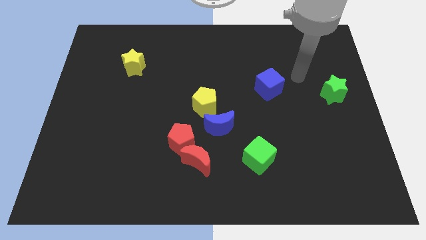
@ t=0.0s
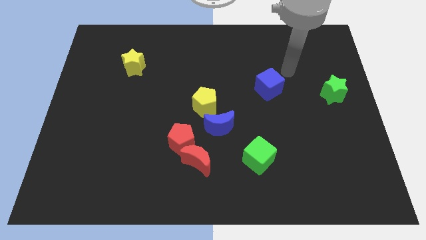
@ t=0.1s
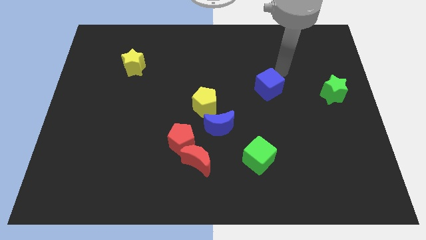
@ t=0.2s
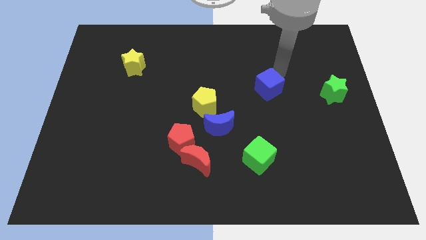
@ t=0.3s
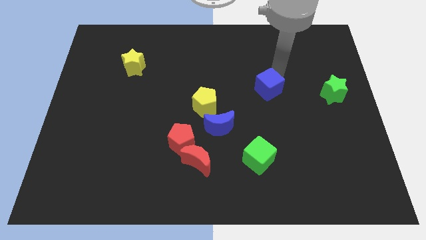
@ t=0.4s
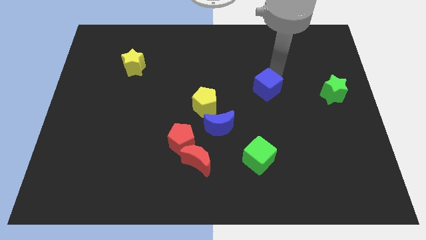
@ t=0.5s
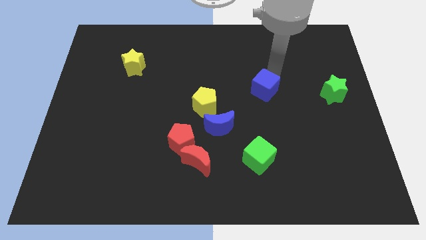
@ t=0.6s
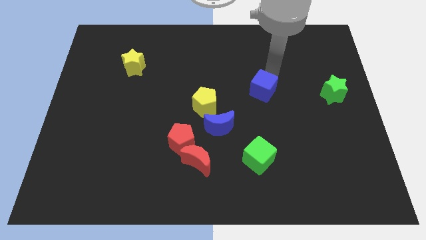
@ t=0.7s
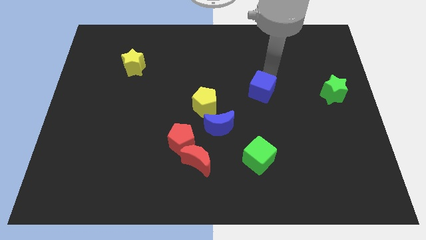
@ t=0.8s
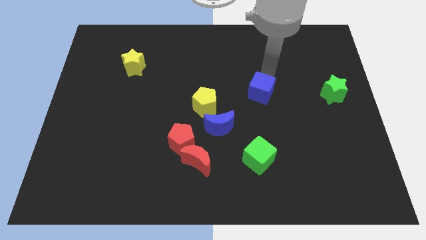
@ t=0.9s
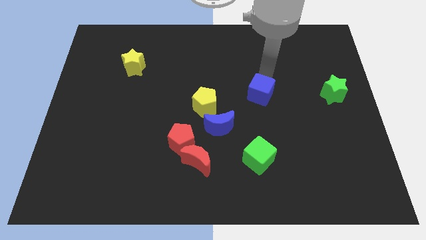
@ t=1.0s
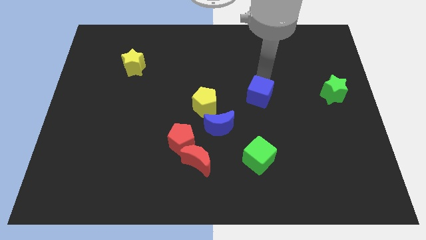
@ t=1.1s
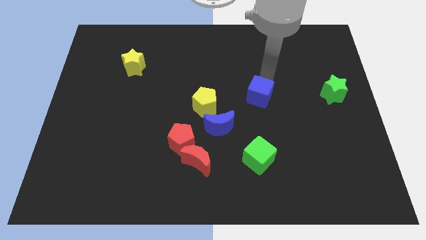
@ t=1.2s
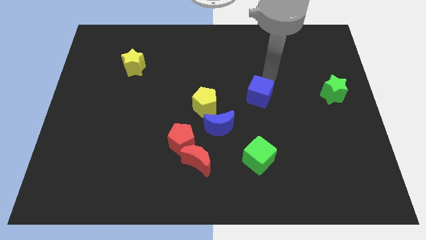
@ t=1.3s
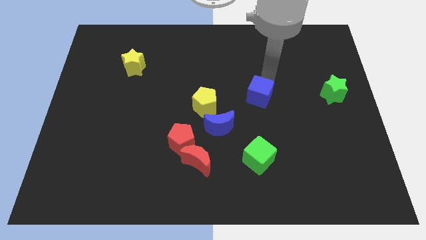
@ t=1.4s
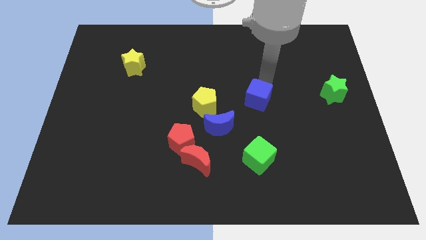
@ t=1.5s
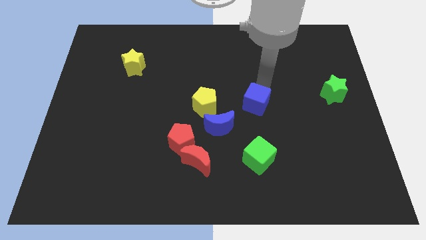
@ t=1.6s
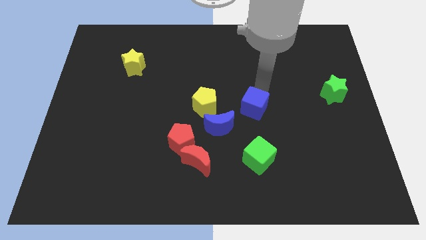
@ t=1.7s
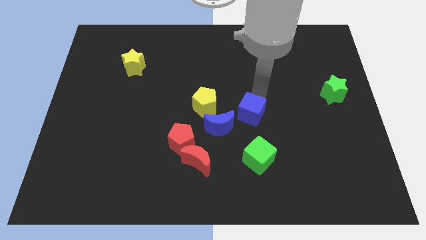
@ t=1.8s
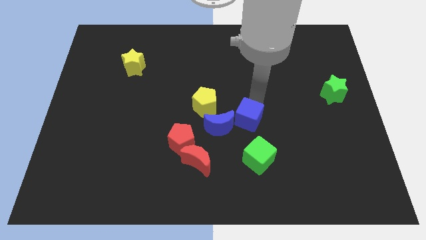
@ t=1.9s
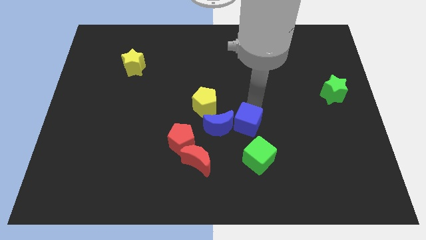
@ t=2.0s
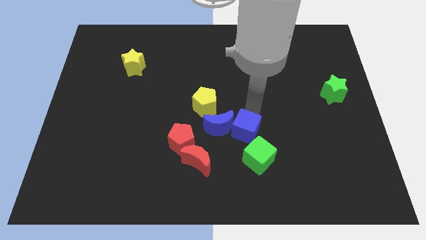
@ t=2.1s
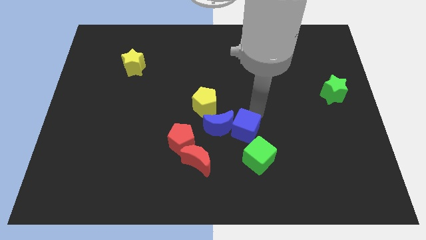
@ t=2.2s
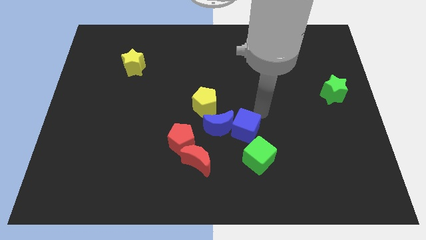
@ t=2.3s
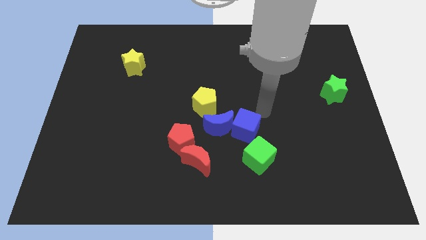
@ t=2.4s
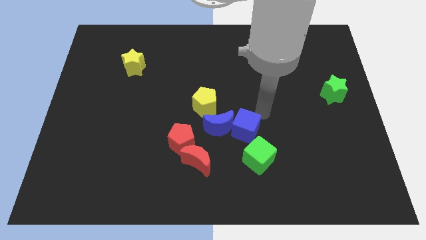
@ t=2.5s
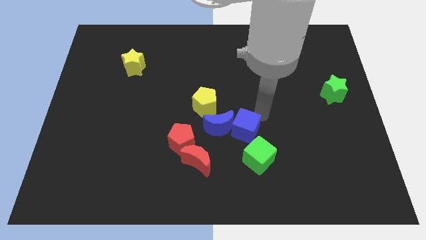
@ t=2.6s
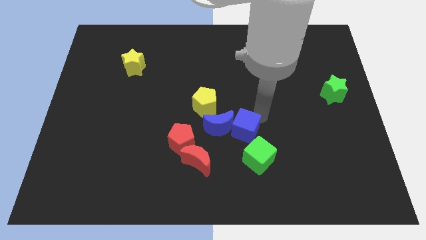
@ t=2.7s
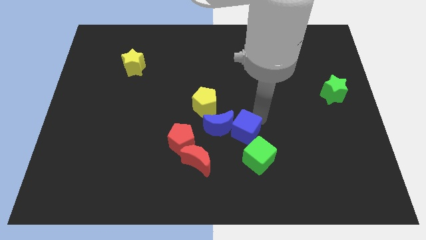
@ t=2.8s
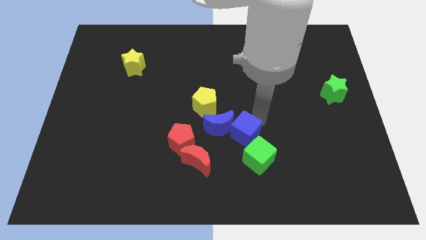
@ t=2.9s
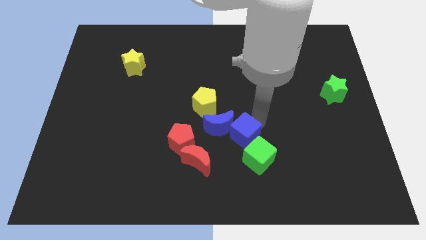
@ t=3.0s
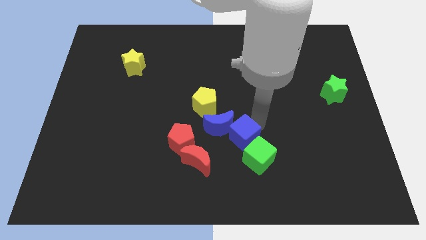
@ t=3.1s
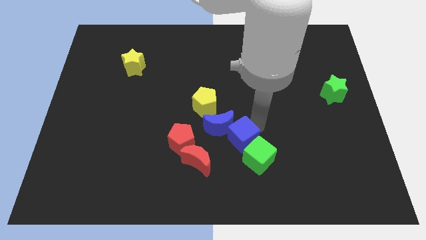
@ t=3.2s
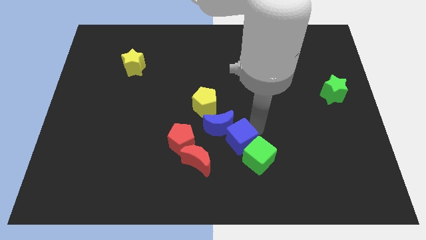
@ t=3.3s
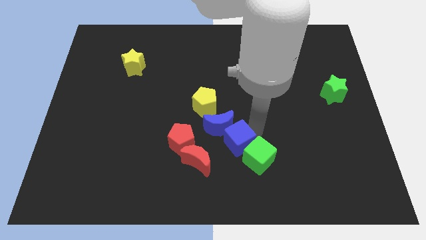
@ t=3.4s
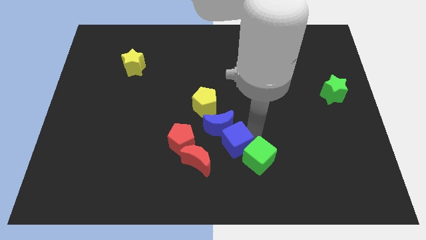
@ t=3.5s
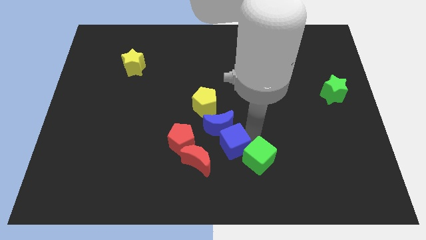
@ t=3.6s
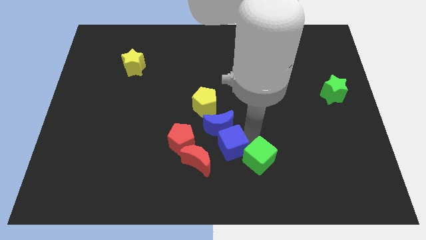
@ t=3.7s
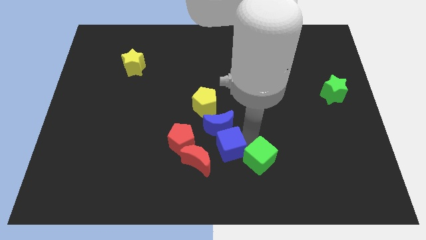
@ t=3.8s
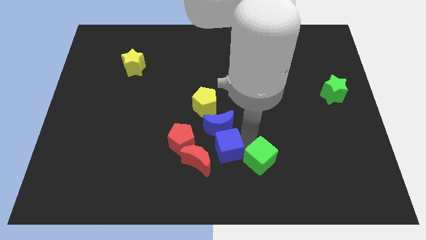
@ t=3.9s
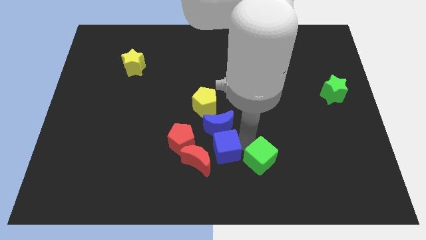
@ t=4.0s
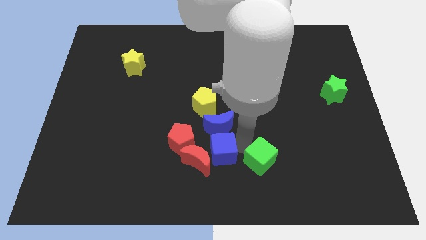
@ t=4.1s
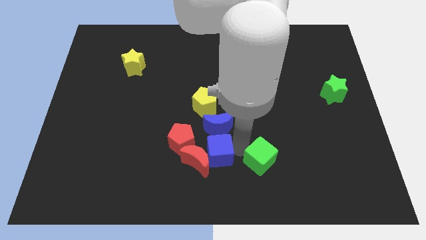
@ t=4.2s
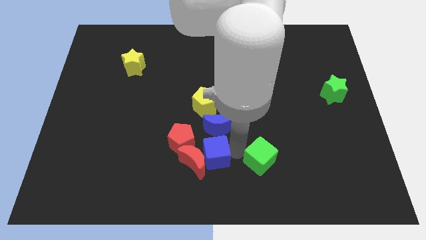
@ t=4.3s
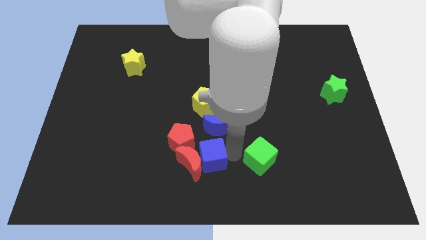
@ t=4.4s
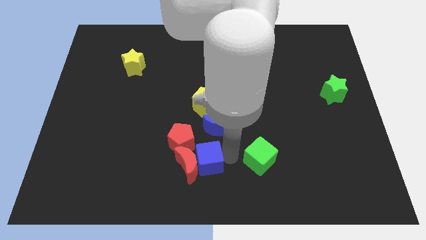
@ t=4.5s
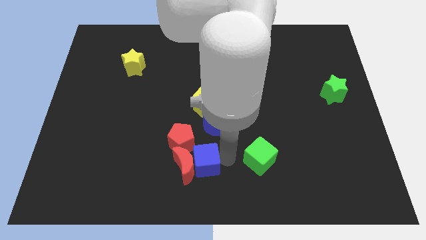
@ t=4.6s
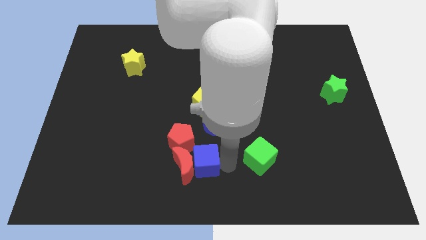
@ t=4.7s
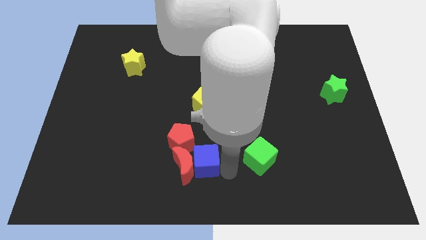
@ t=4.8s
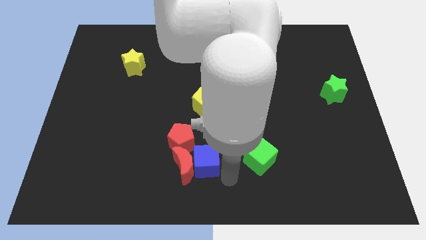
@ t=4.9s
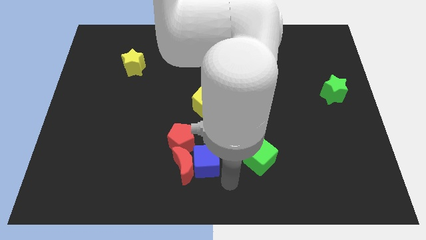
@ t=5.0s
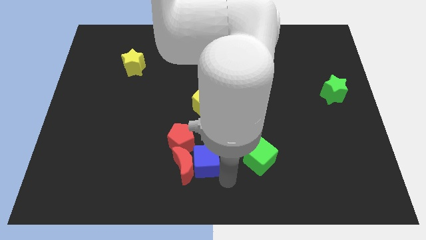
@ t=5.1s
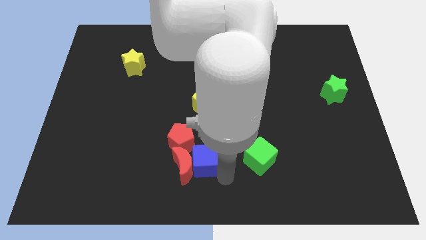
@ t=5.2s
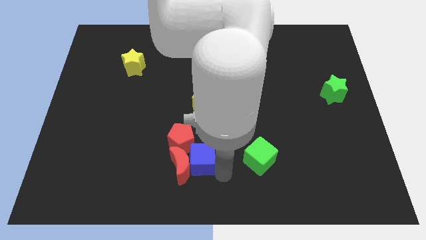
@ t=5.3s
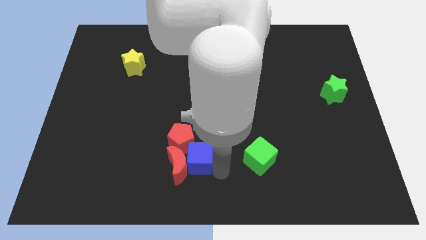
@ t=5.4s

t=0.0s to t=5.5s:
put the blue cube towards the red pentagon

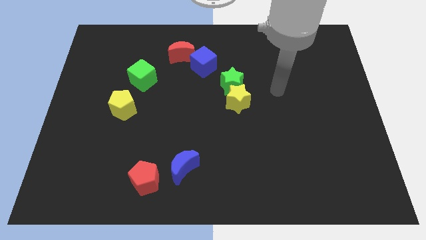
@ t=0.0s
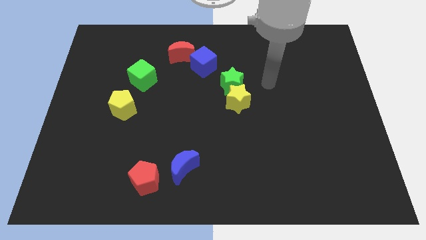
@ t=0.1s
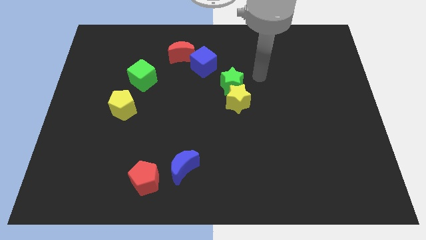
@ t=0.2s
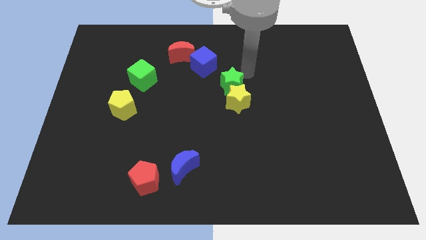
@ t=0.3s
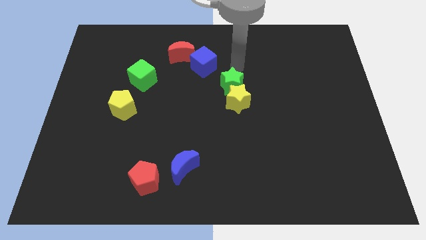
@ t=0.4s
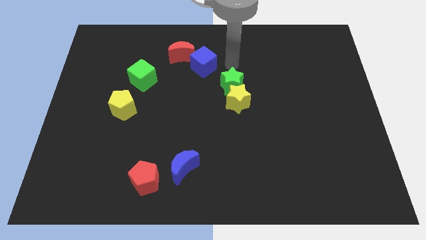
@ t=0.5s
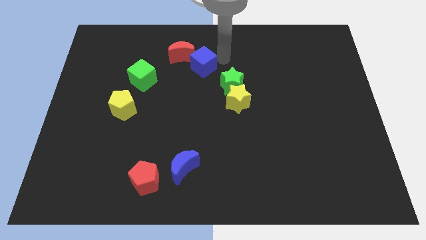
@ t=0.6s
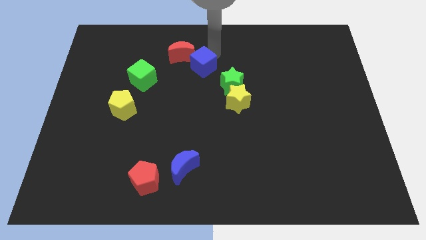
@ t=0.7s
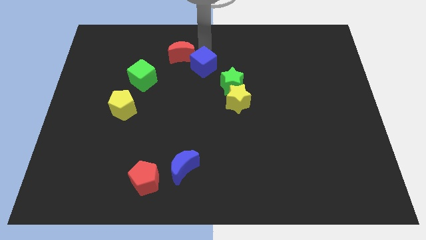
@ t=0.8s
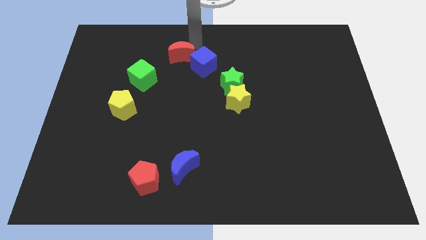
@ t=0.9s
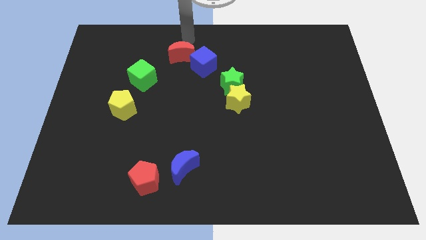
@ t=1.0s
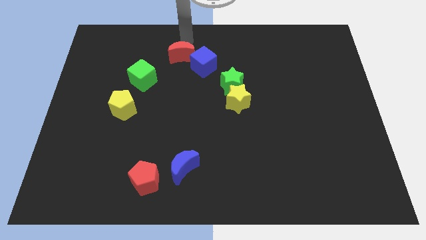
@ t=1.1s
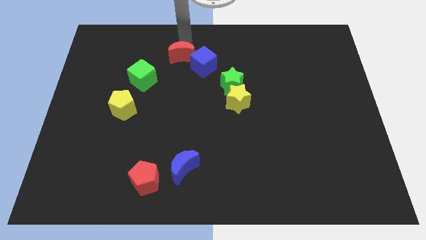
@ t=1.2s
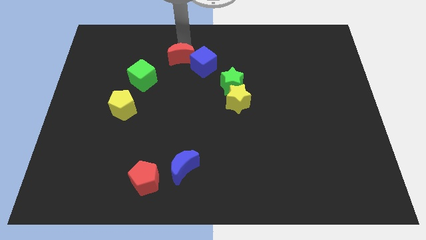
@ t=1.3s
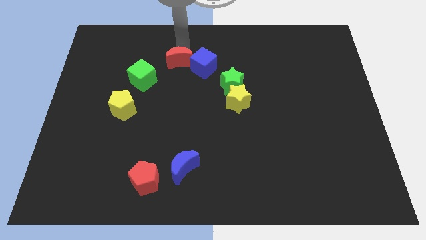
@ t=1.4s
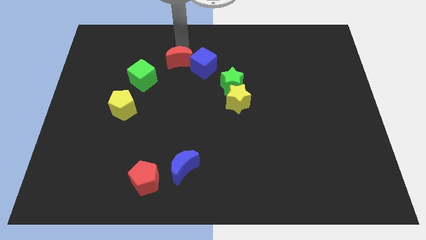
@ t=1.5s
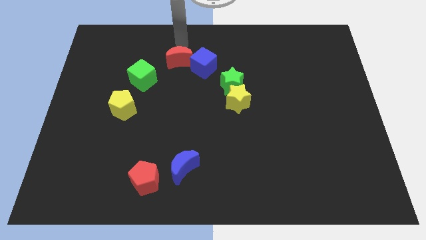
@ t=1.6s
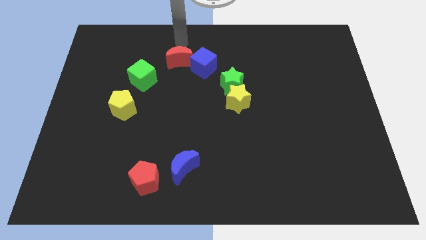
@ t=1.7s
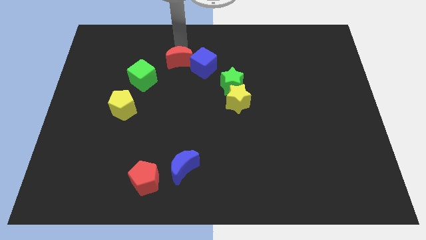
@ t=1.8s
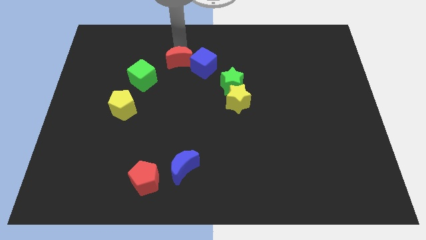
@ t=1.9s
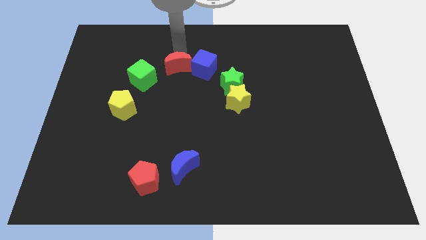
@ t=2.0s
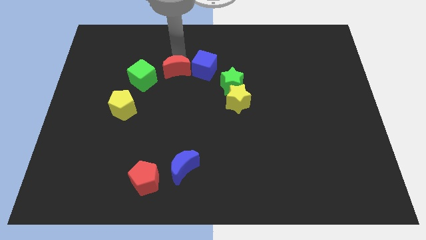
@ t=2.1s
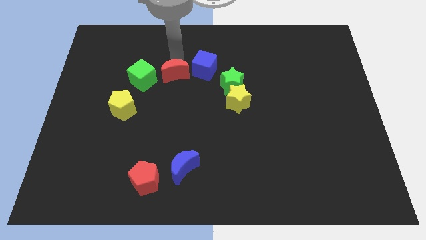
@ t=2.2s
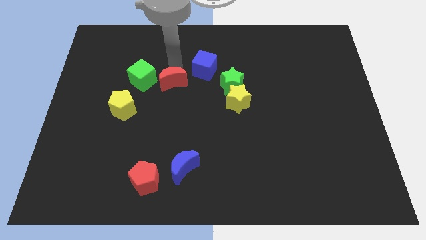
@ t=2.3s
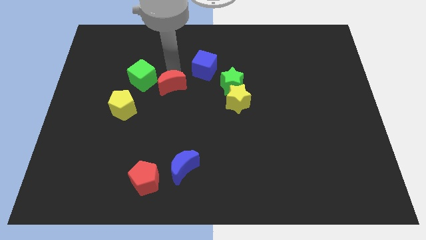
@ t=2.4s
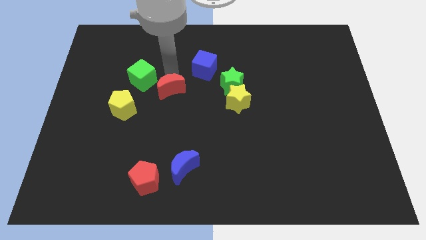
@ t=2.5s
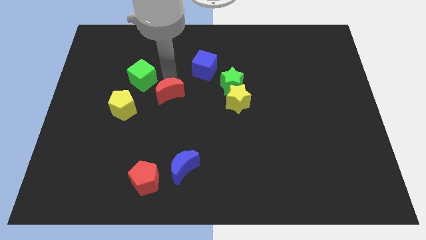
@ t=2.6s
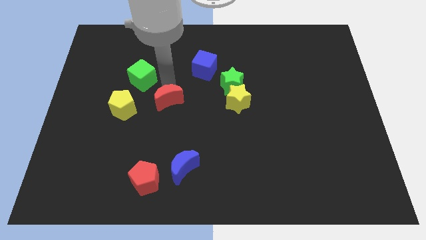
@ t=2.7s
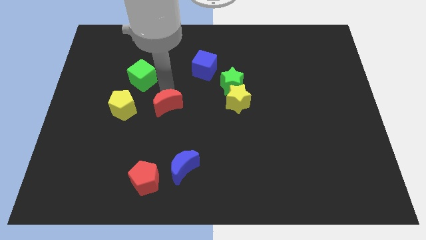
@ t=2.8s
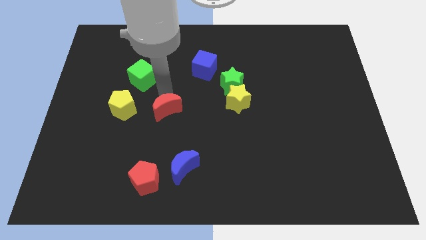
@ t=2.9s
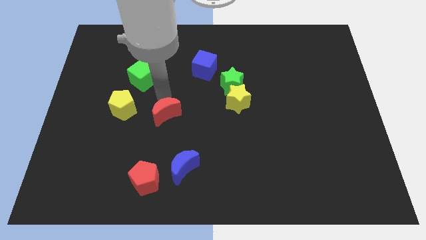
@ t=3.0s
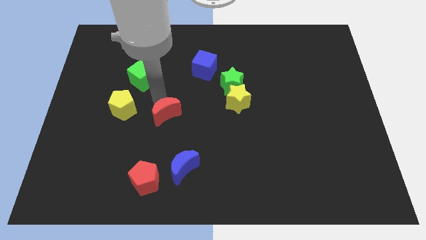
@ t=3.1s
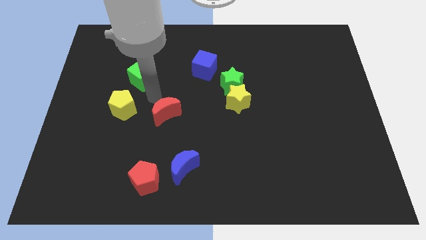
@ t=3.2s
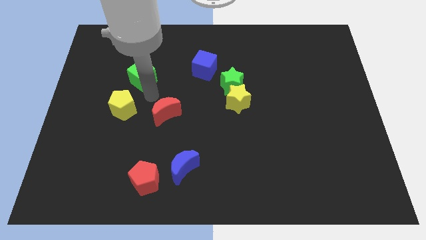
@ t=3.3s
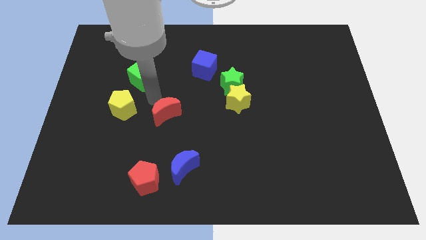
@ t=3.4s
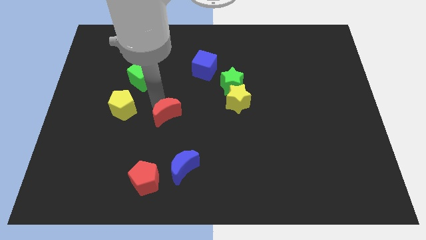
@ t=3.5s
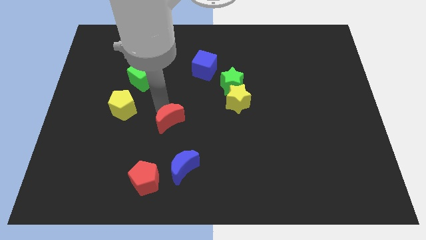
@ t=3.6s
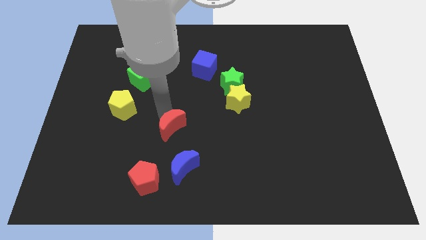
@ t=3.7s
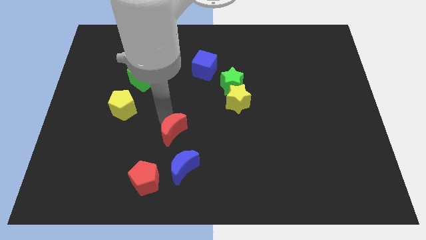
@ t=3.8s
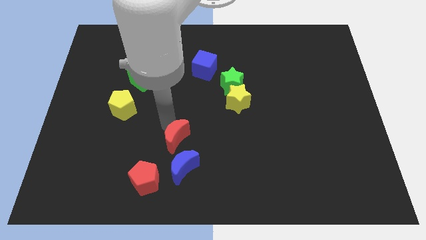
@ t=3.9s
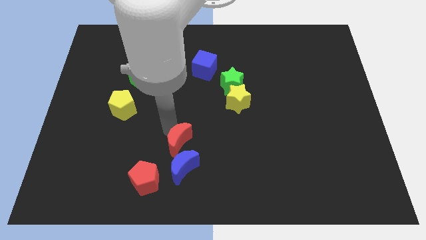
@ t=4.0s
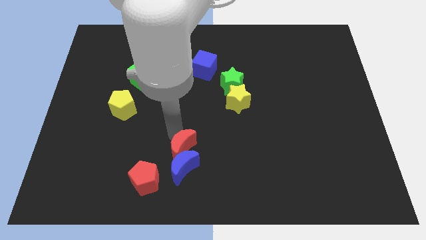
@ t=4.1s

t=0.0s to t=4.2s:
move the red moon towards the blue moon
